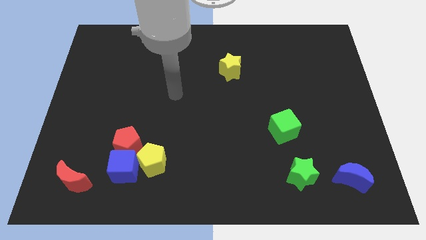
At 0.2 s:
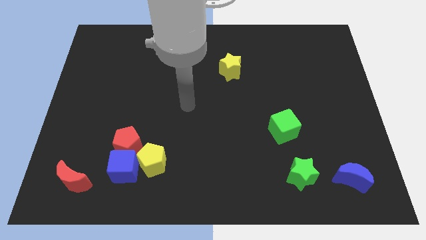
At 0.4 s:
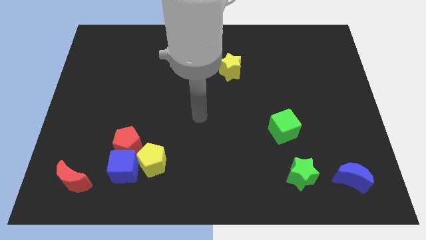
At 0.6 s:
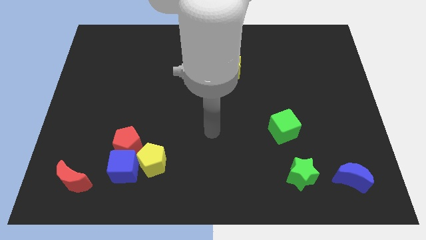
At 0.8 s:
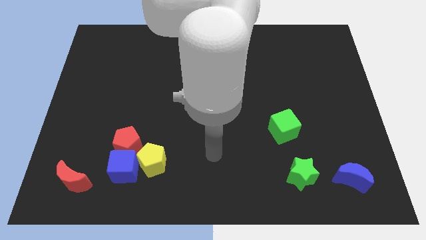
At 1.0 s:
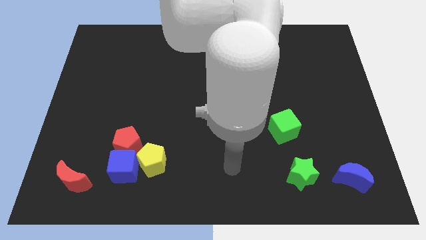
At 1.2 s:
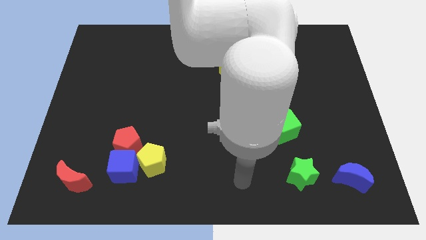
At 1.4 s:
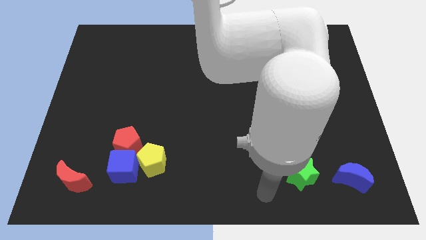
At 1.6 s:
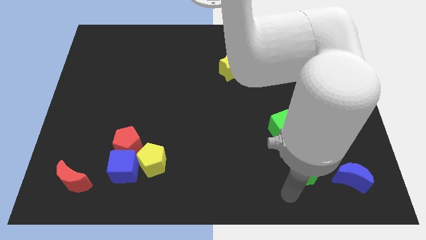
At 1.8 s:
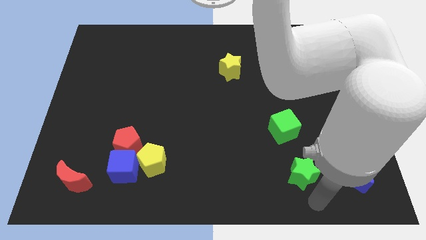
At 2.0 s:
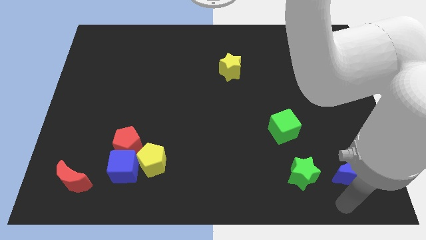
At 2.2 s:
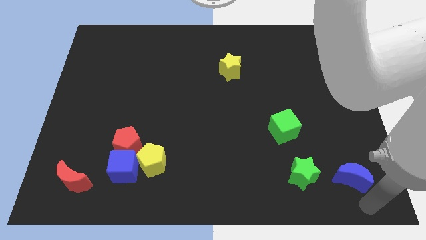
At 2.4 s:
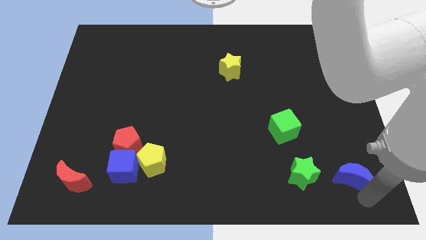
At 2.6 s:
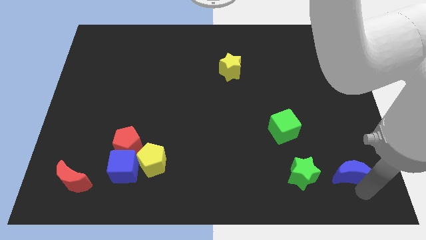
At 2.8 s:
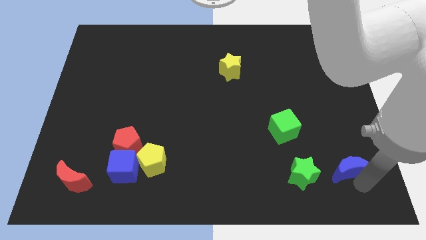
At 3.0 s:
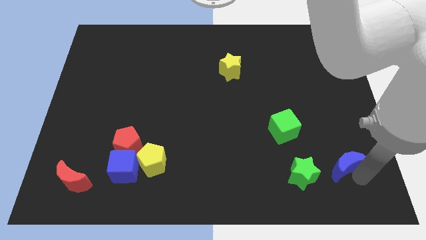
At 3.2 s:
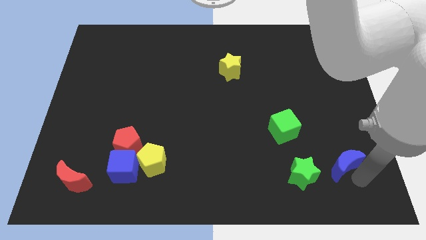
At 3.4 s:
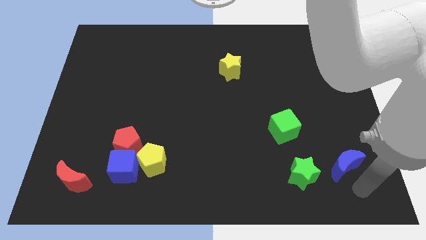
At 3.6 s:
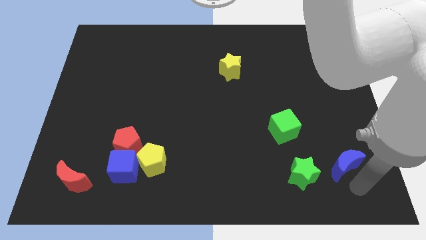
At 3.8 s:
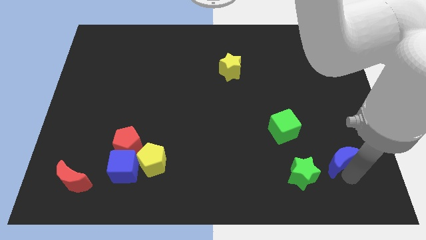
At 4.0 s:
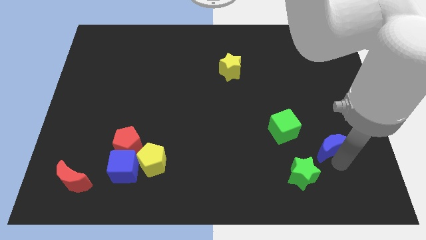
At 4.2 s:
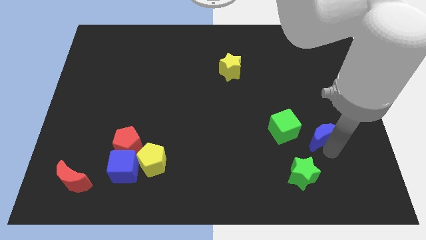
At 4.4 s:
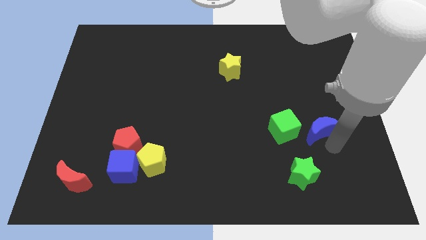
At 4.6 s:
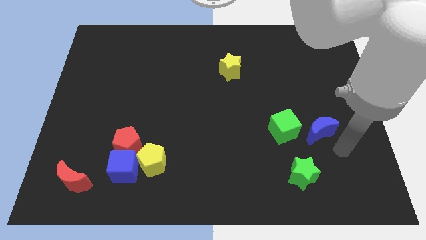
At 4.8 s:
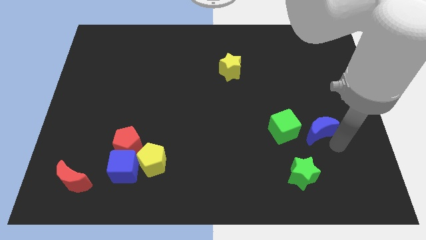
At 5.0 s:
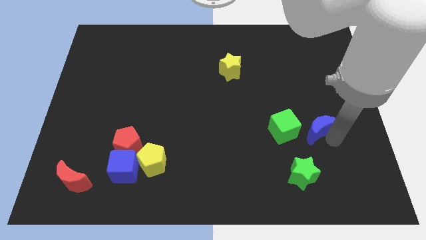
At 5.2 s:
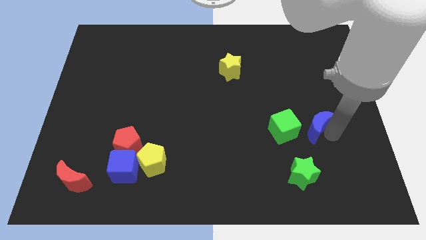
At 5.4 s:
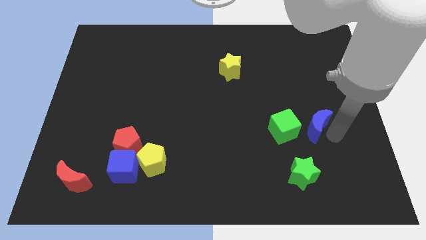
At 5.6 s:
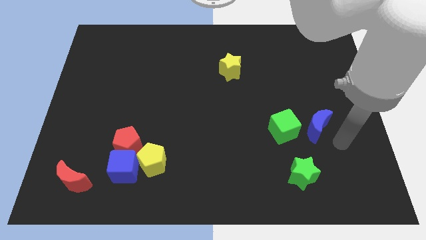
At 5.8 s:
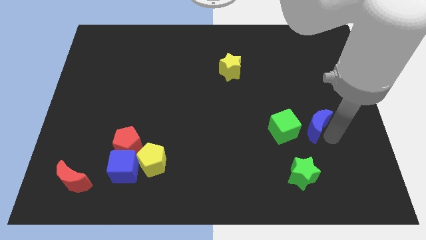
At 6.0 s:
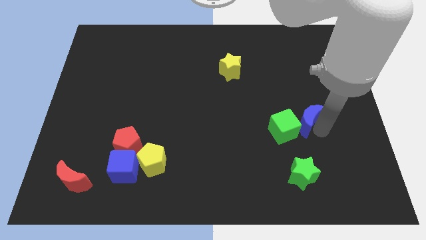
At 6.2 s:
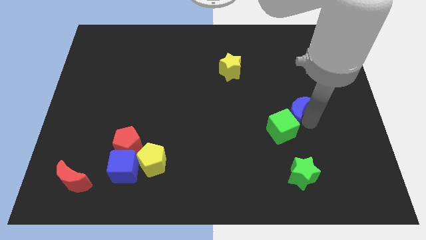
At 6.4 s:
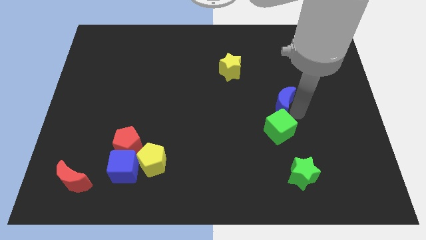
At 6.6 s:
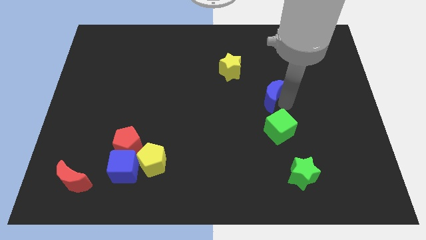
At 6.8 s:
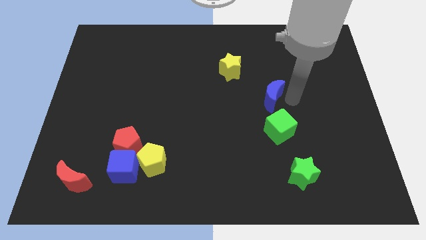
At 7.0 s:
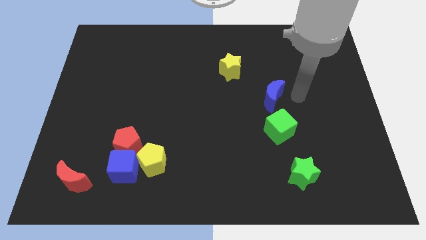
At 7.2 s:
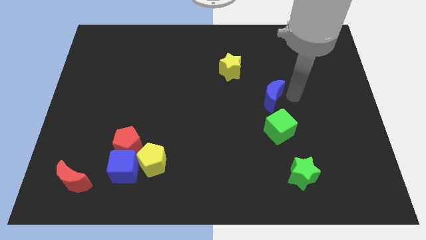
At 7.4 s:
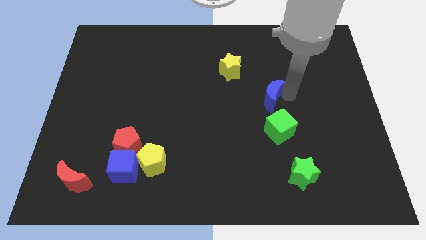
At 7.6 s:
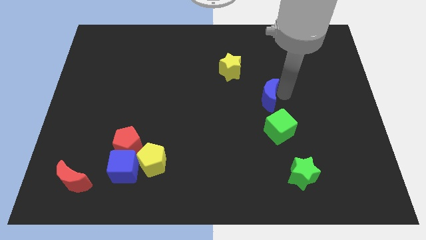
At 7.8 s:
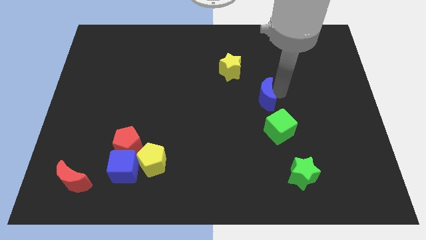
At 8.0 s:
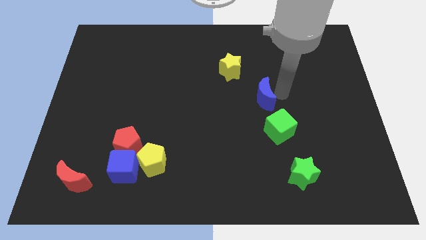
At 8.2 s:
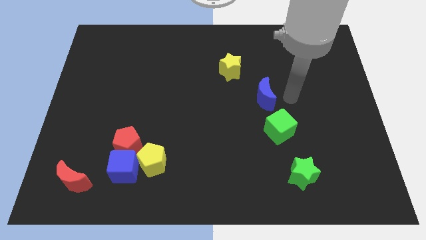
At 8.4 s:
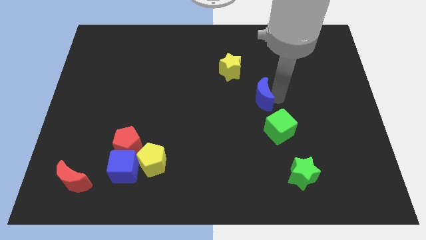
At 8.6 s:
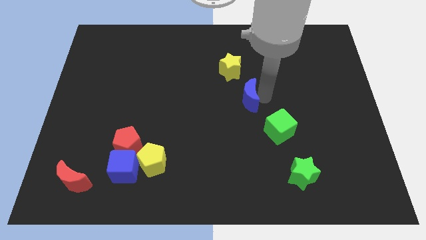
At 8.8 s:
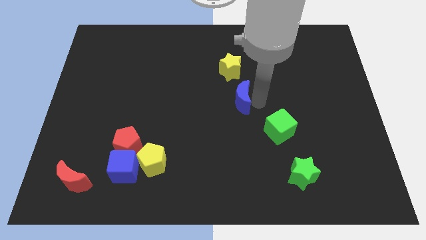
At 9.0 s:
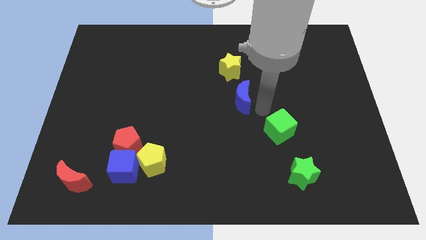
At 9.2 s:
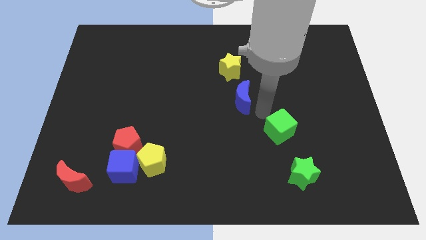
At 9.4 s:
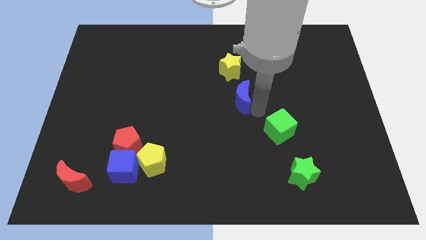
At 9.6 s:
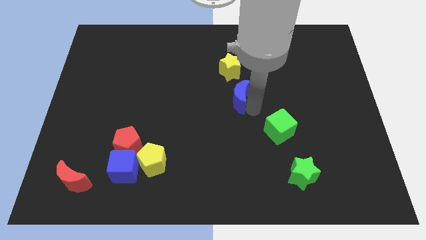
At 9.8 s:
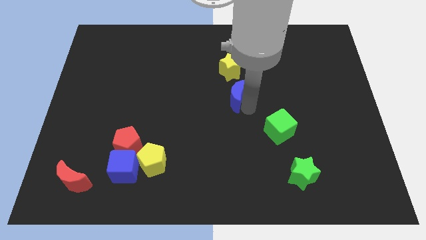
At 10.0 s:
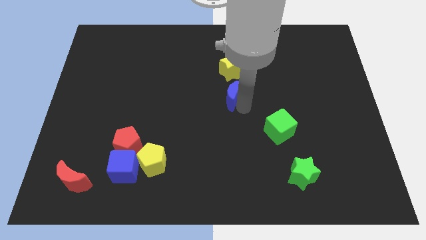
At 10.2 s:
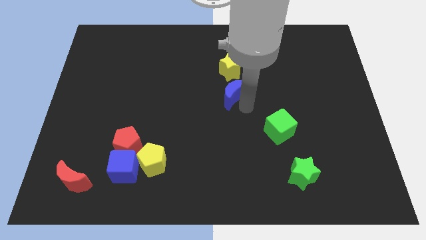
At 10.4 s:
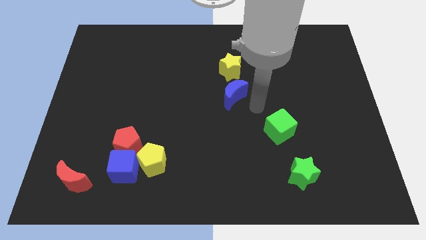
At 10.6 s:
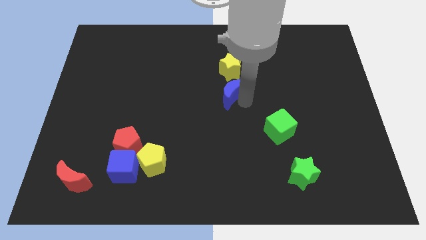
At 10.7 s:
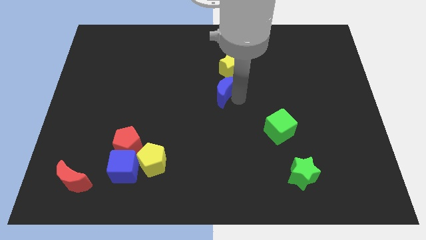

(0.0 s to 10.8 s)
push the blue moon diagonally down and to the left of the yellow star

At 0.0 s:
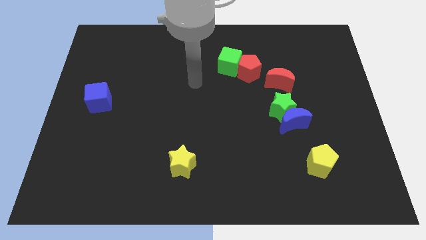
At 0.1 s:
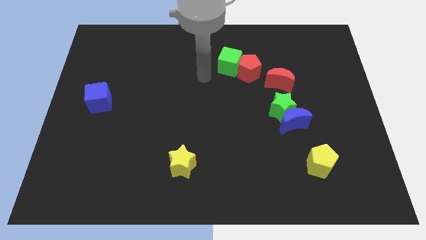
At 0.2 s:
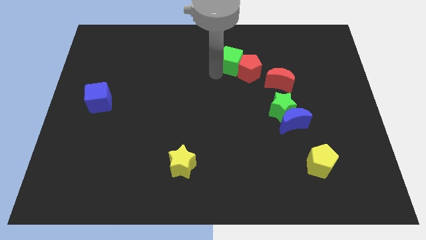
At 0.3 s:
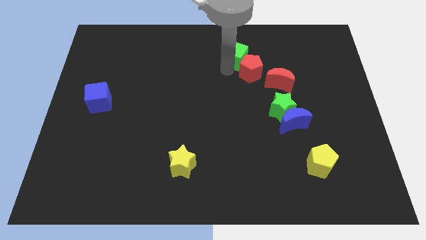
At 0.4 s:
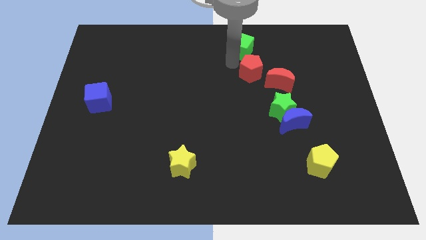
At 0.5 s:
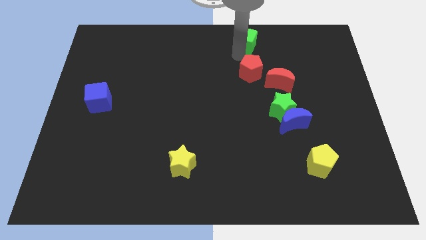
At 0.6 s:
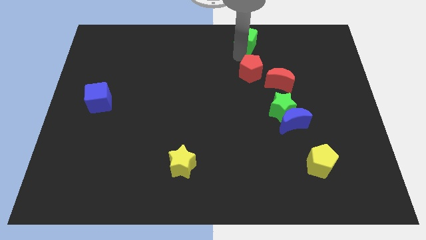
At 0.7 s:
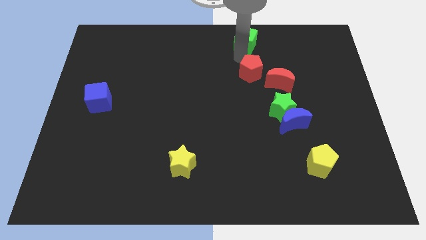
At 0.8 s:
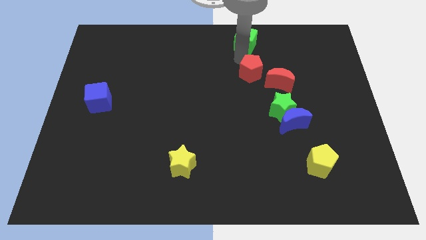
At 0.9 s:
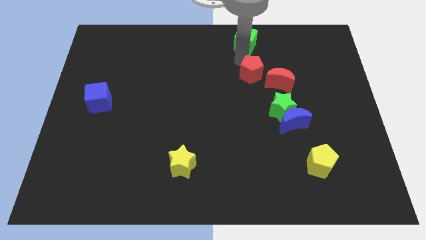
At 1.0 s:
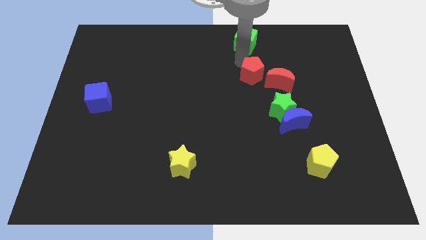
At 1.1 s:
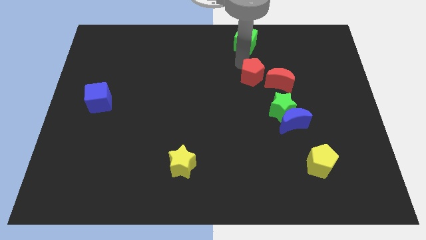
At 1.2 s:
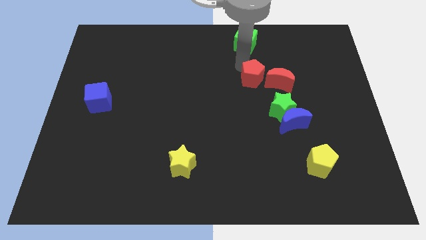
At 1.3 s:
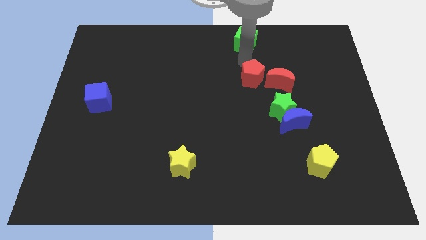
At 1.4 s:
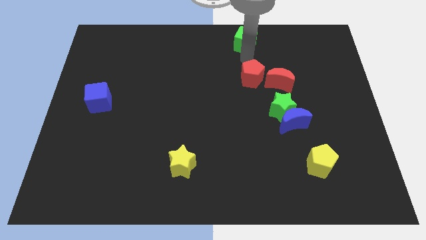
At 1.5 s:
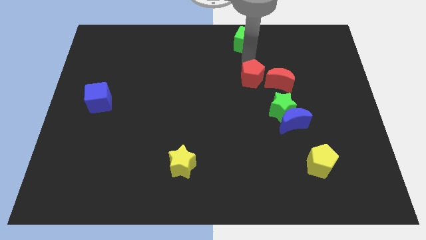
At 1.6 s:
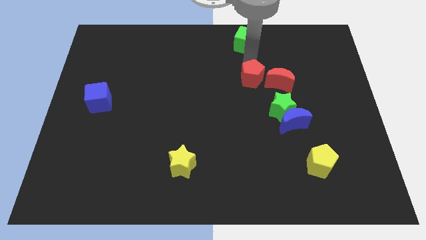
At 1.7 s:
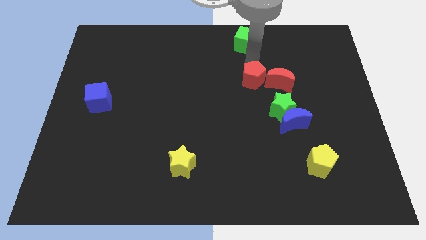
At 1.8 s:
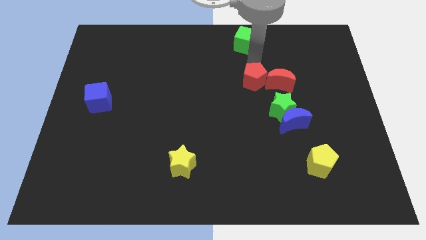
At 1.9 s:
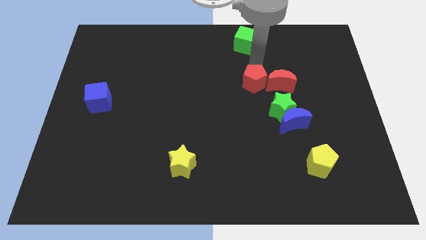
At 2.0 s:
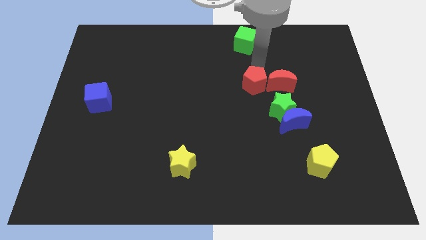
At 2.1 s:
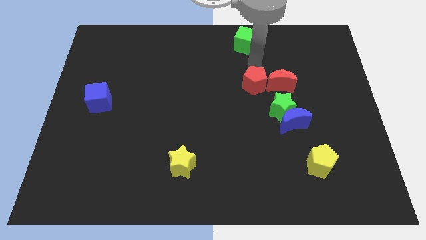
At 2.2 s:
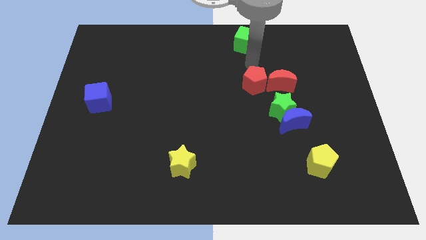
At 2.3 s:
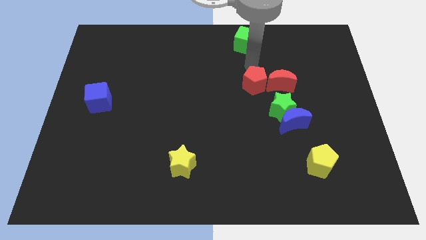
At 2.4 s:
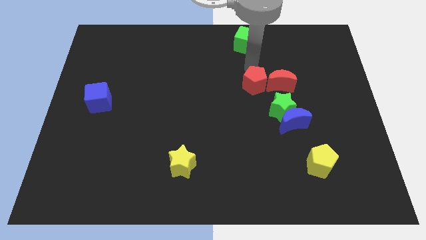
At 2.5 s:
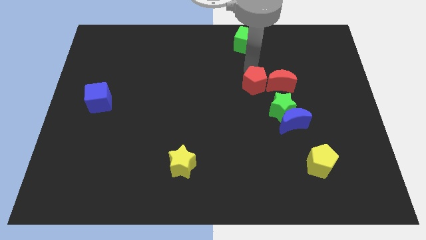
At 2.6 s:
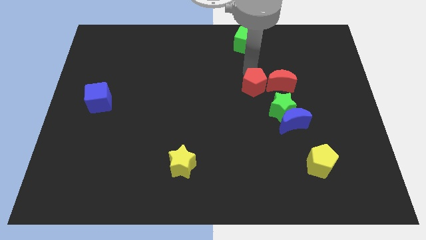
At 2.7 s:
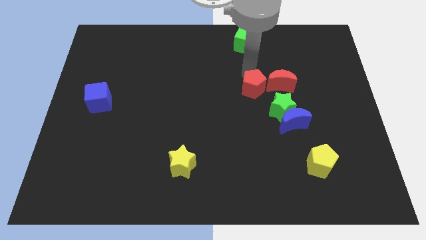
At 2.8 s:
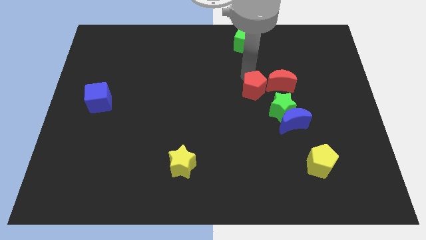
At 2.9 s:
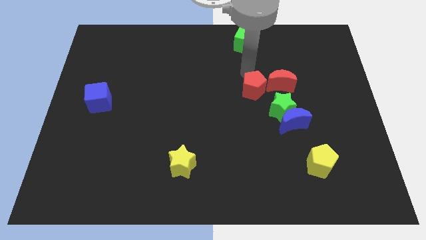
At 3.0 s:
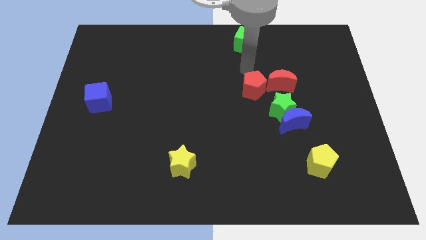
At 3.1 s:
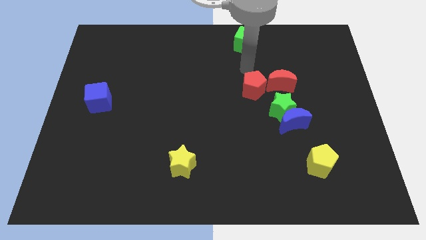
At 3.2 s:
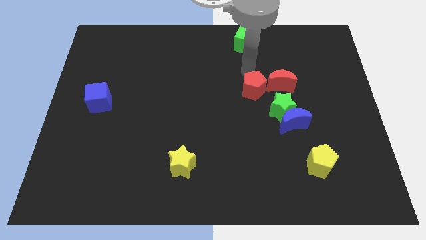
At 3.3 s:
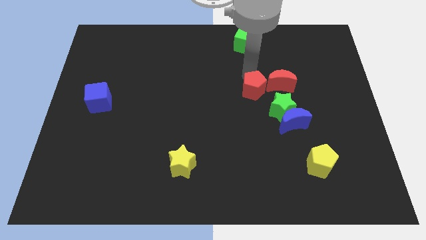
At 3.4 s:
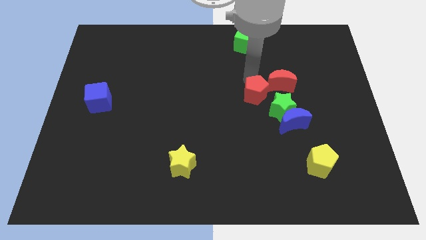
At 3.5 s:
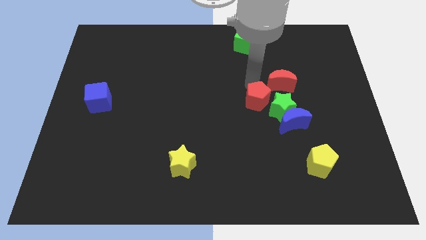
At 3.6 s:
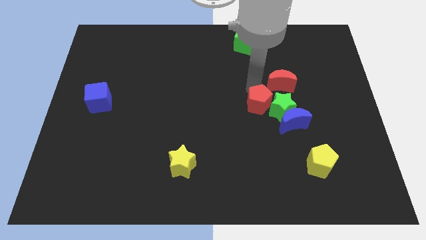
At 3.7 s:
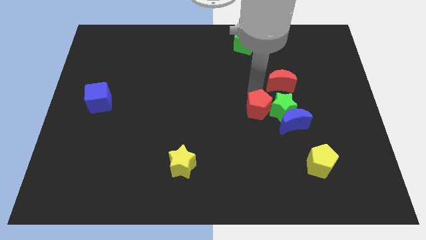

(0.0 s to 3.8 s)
slide the red pentagon to the bottom left side of the green star
